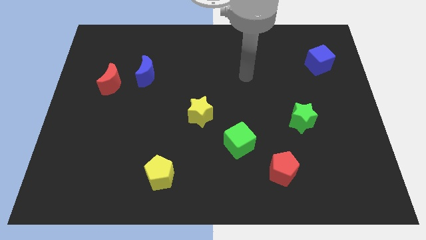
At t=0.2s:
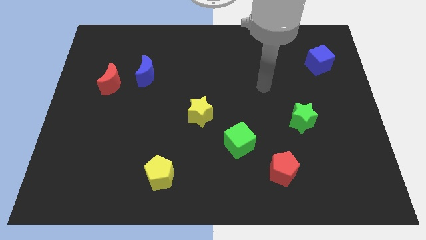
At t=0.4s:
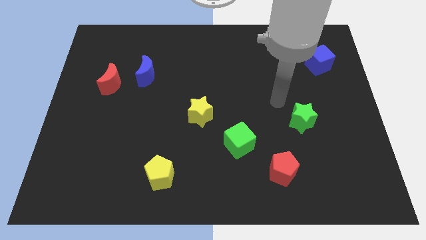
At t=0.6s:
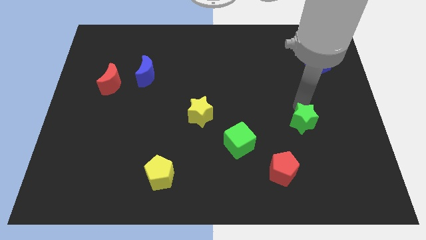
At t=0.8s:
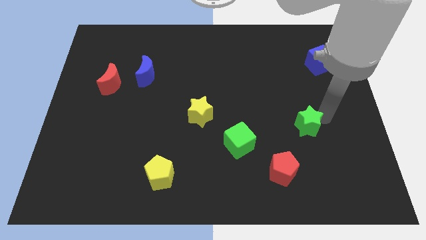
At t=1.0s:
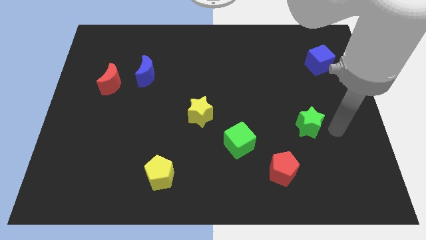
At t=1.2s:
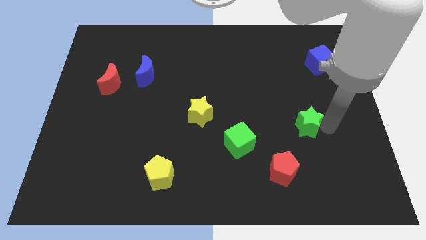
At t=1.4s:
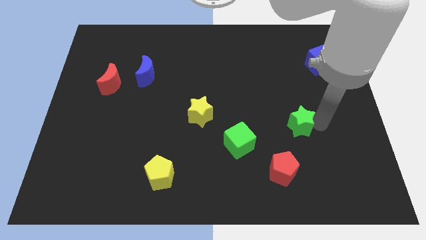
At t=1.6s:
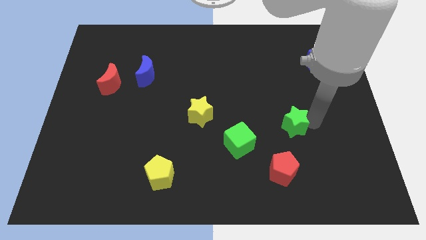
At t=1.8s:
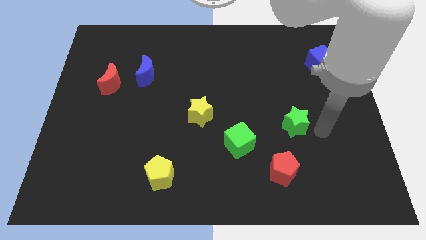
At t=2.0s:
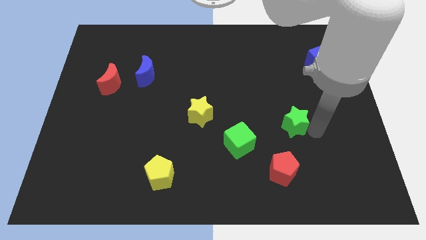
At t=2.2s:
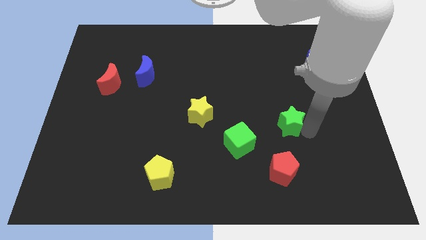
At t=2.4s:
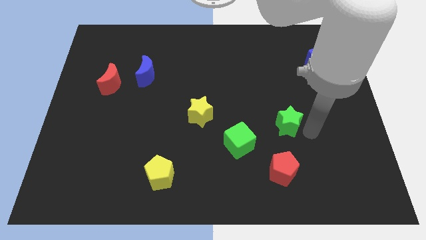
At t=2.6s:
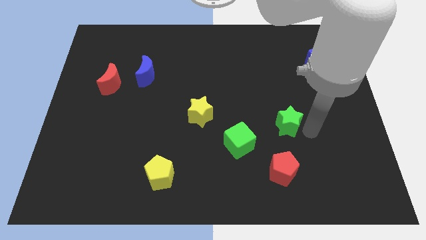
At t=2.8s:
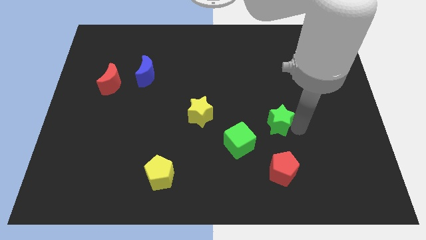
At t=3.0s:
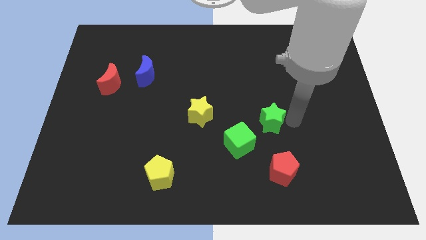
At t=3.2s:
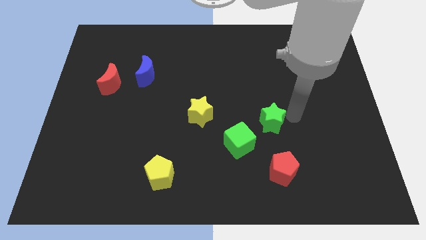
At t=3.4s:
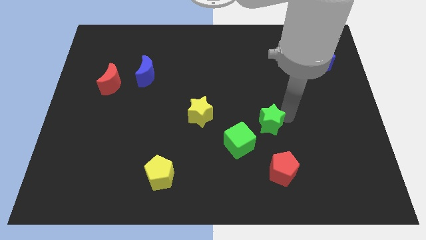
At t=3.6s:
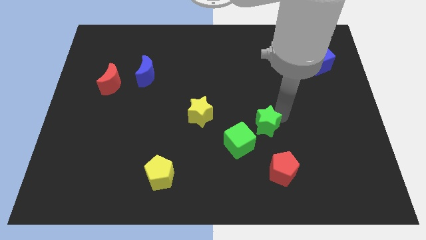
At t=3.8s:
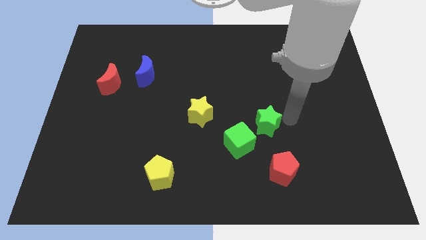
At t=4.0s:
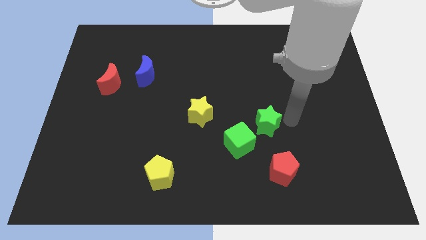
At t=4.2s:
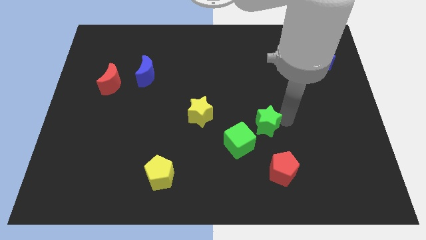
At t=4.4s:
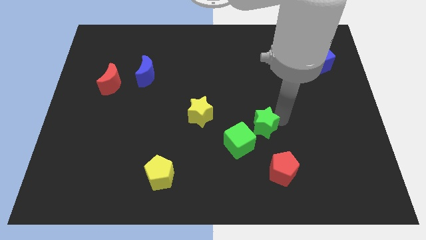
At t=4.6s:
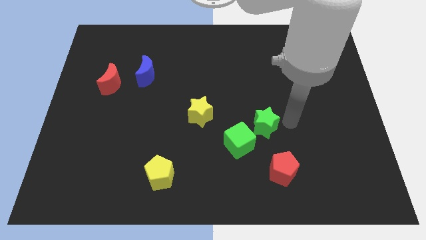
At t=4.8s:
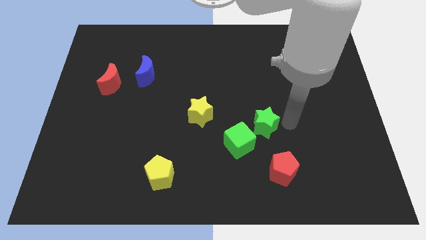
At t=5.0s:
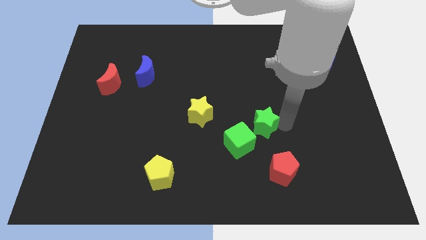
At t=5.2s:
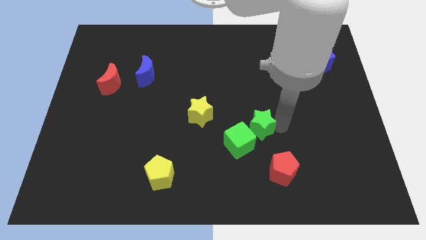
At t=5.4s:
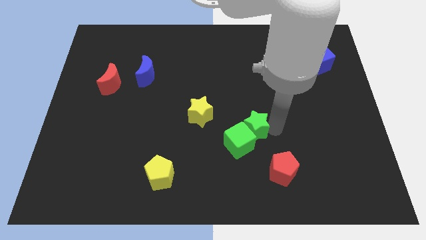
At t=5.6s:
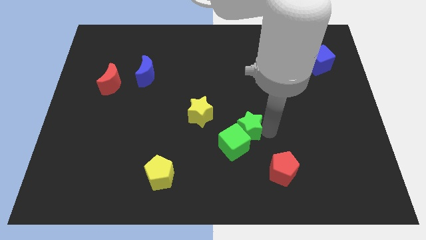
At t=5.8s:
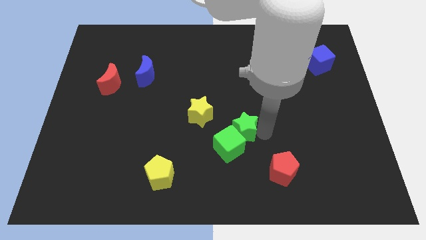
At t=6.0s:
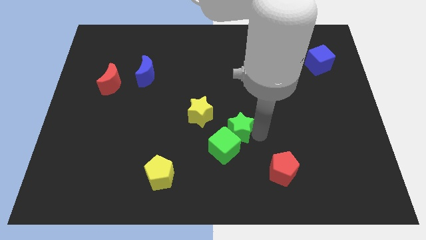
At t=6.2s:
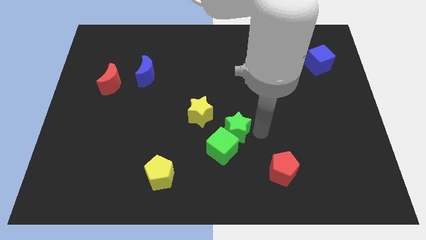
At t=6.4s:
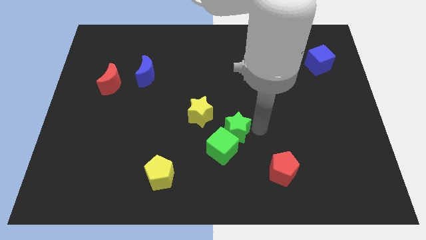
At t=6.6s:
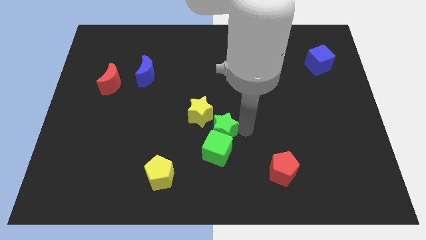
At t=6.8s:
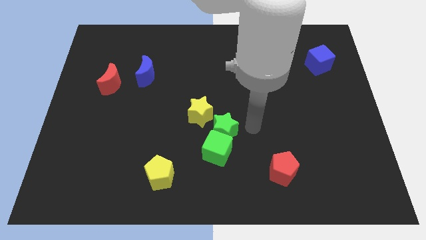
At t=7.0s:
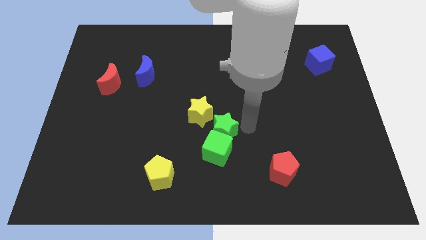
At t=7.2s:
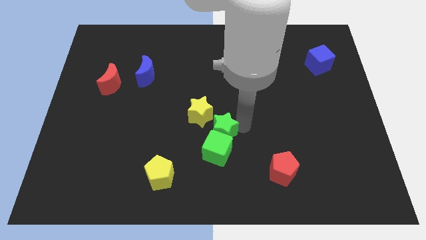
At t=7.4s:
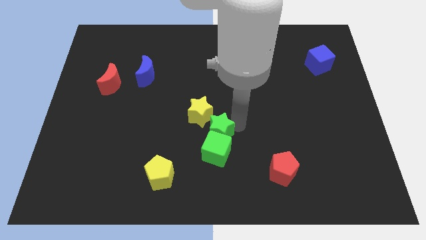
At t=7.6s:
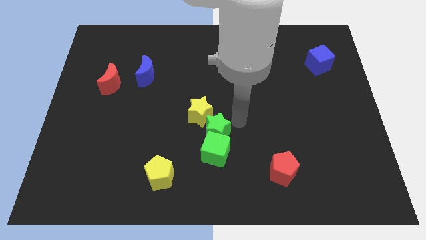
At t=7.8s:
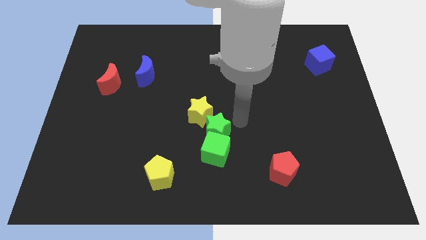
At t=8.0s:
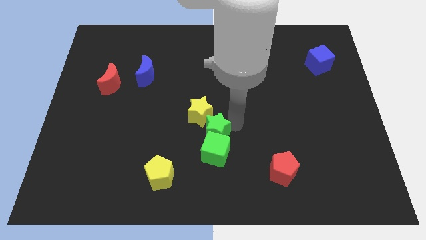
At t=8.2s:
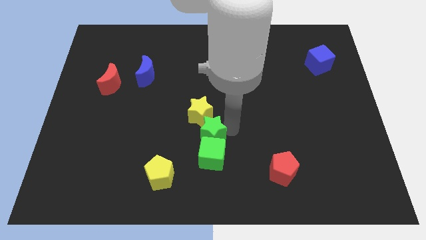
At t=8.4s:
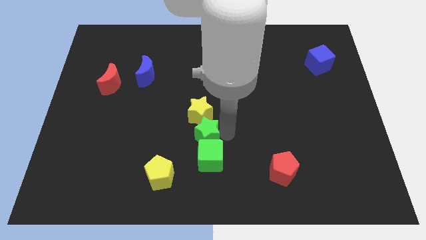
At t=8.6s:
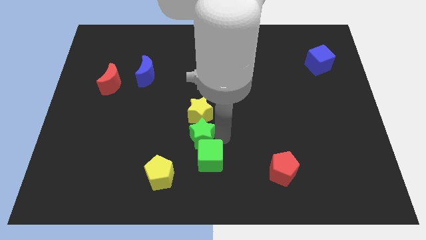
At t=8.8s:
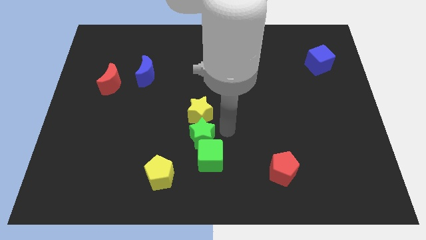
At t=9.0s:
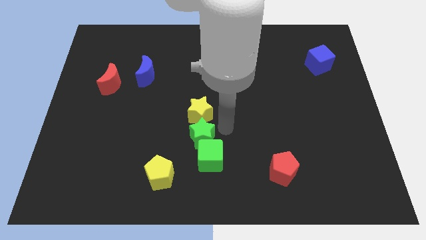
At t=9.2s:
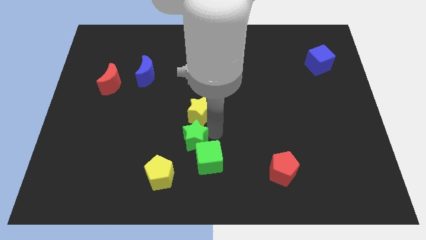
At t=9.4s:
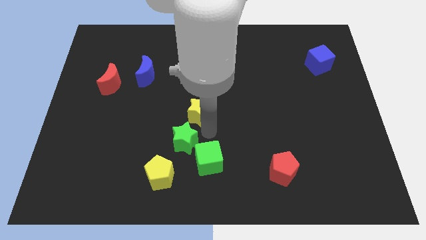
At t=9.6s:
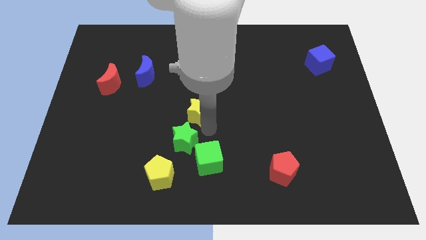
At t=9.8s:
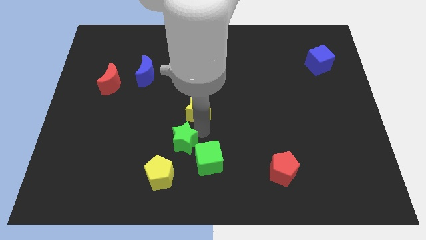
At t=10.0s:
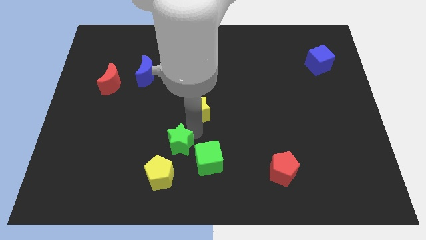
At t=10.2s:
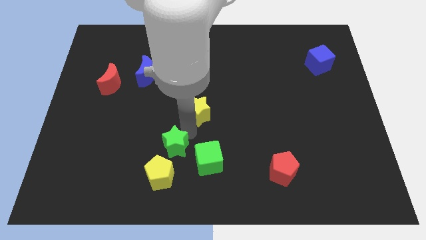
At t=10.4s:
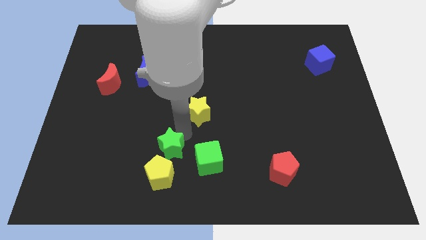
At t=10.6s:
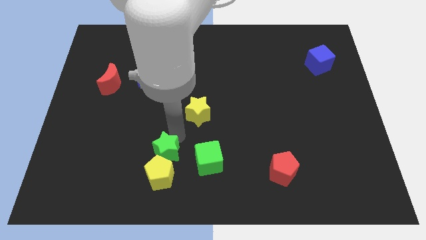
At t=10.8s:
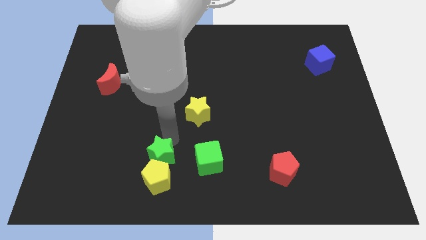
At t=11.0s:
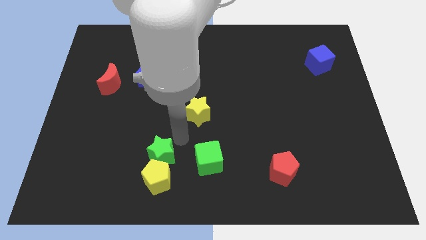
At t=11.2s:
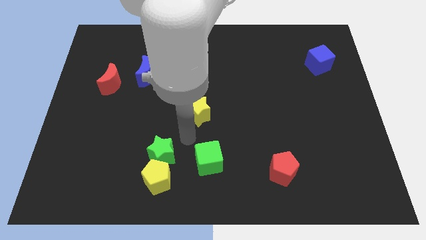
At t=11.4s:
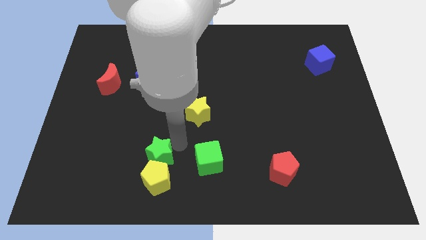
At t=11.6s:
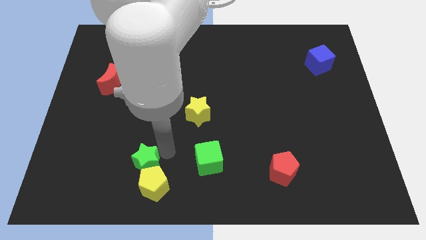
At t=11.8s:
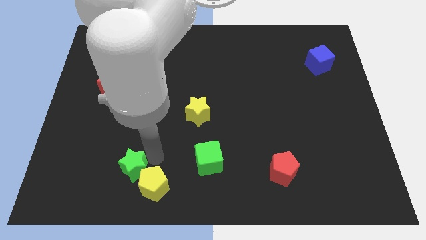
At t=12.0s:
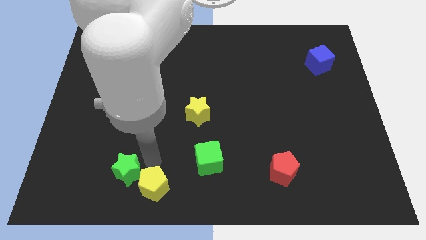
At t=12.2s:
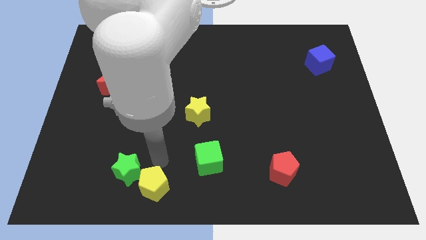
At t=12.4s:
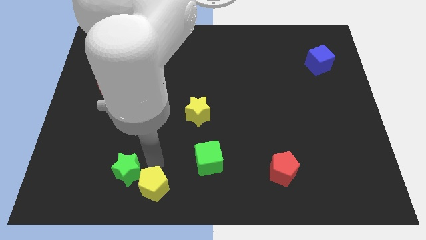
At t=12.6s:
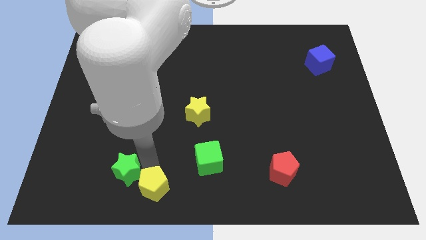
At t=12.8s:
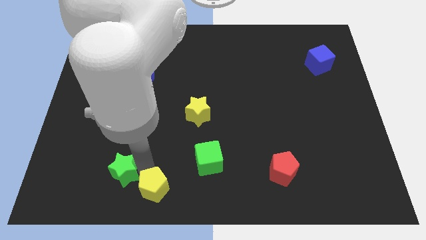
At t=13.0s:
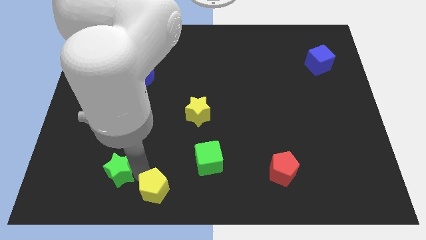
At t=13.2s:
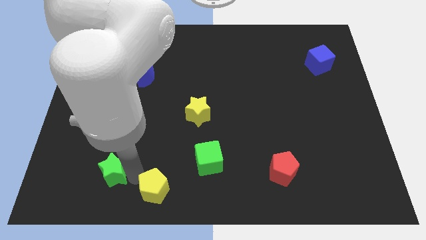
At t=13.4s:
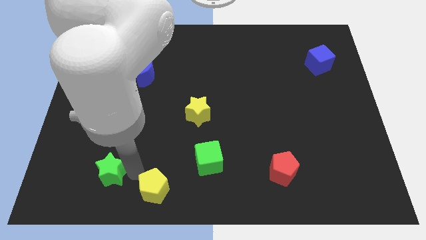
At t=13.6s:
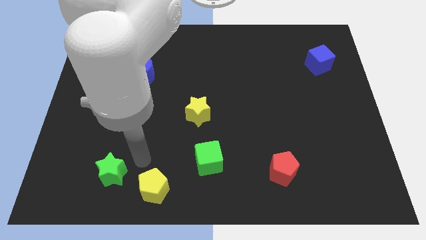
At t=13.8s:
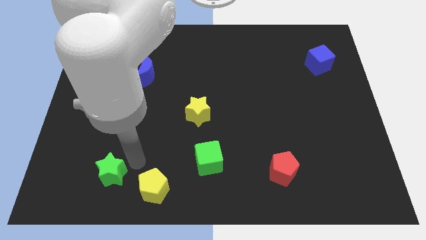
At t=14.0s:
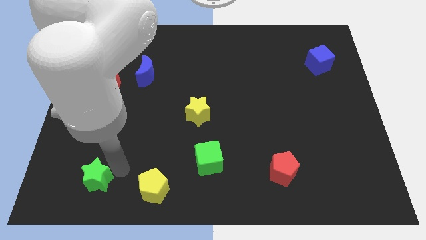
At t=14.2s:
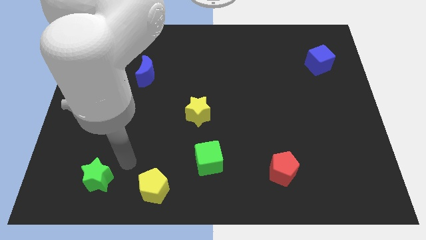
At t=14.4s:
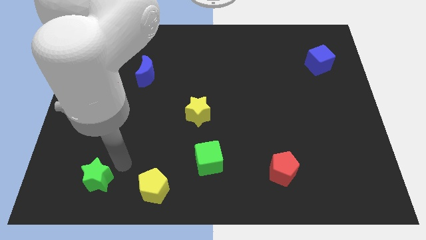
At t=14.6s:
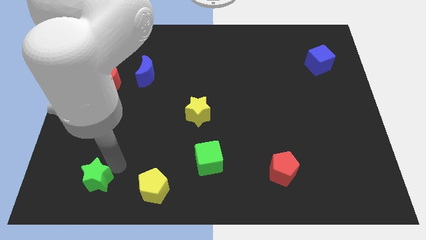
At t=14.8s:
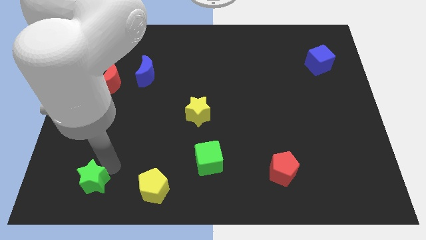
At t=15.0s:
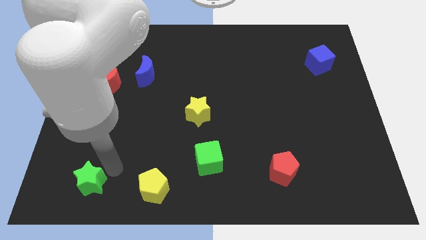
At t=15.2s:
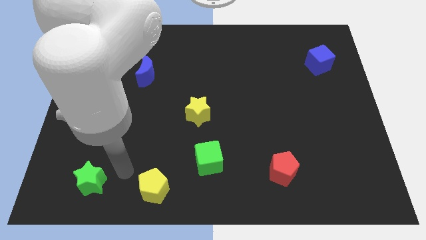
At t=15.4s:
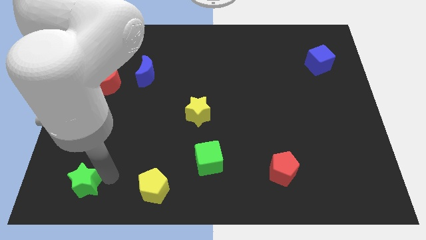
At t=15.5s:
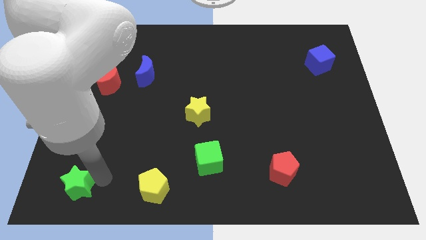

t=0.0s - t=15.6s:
put the green star to the bottom left

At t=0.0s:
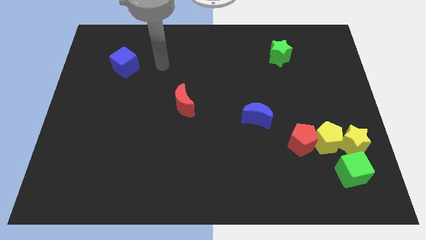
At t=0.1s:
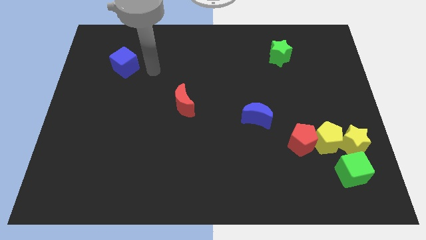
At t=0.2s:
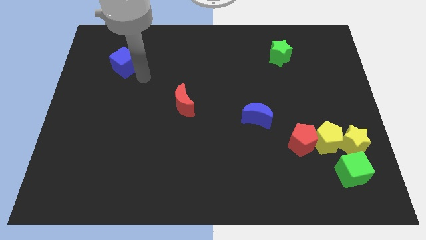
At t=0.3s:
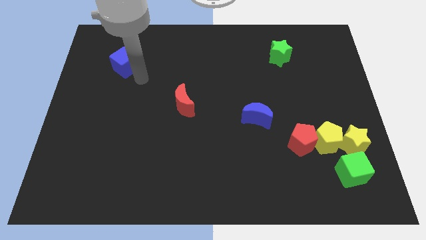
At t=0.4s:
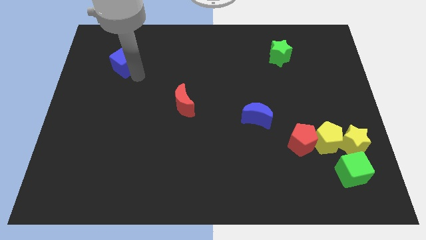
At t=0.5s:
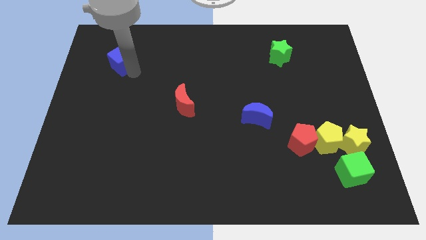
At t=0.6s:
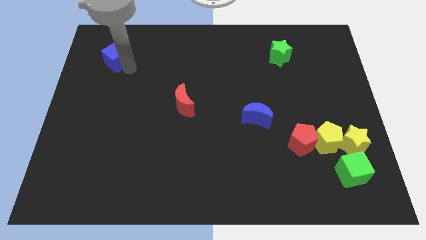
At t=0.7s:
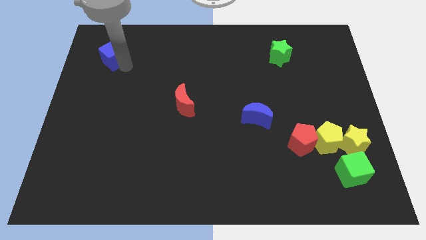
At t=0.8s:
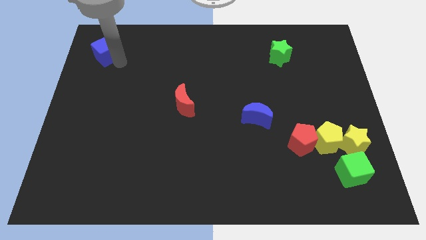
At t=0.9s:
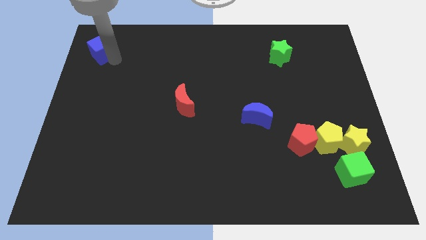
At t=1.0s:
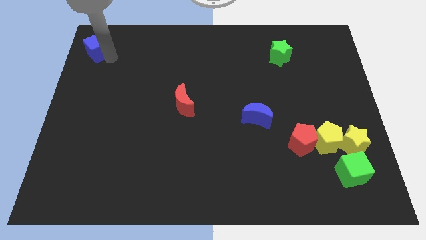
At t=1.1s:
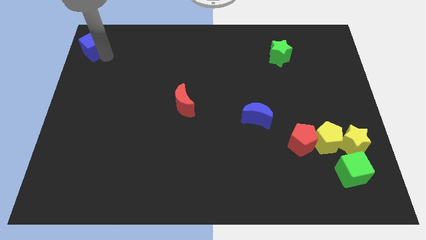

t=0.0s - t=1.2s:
move the blue cube to the top left of the board
